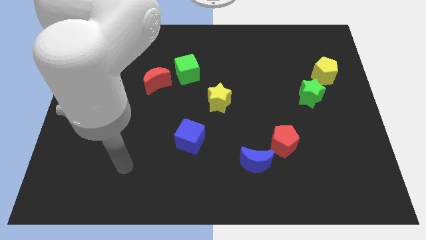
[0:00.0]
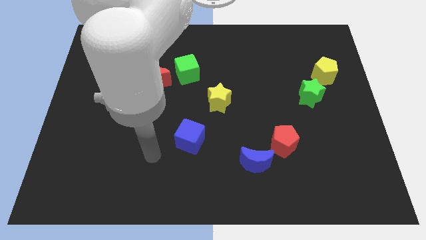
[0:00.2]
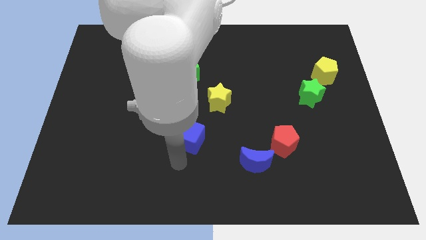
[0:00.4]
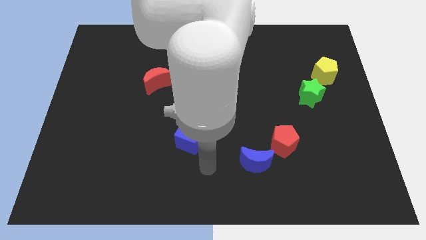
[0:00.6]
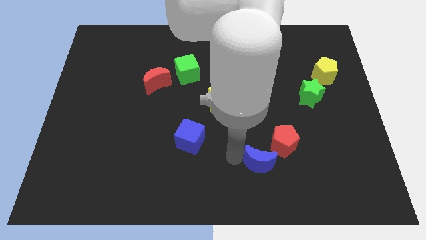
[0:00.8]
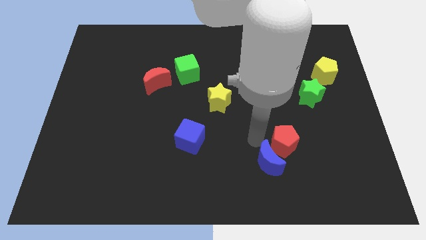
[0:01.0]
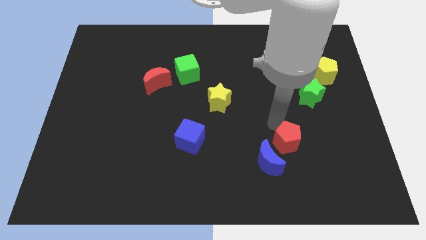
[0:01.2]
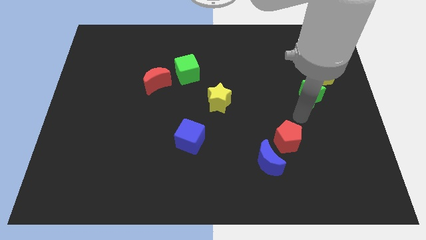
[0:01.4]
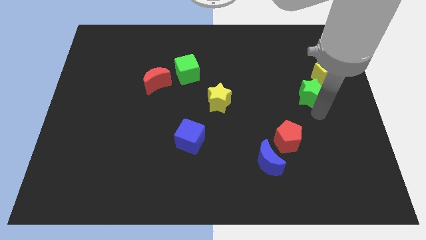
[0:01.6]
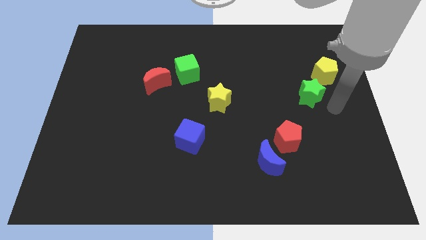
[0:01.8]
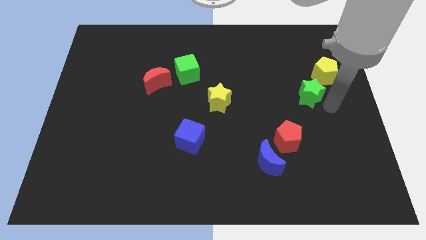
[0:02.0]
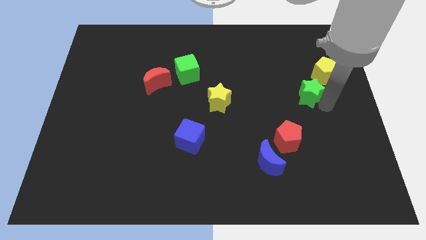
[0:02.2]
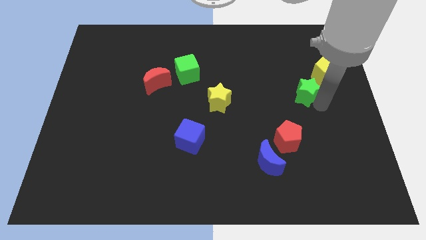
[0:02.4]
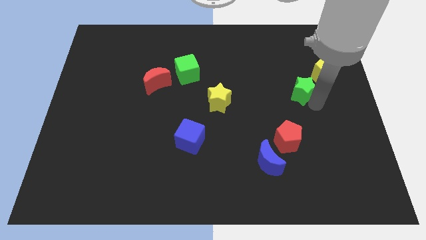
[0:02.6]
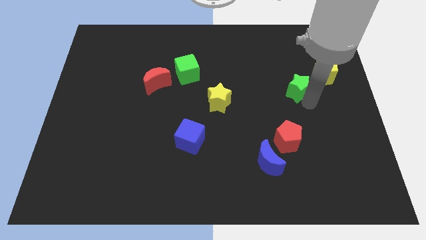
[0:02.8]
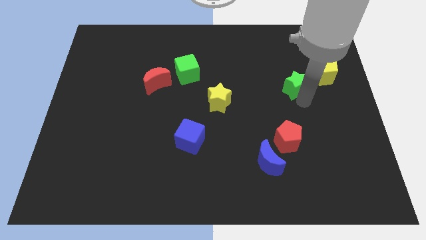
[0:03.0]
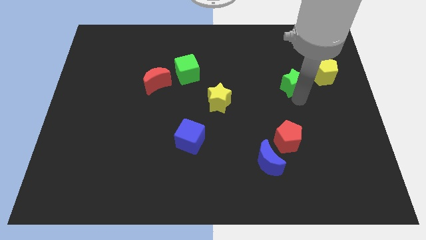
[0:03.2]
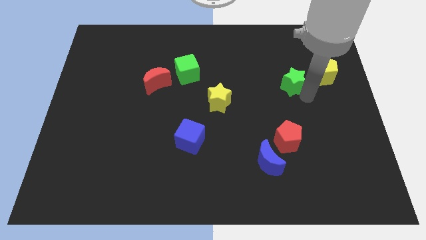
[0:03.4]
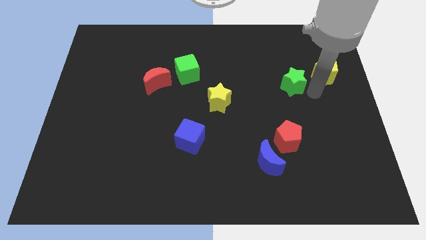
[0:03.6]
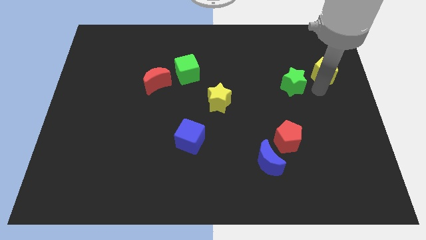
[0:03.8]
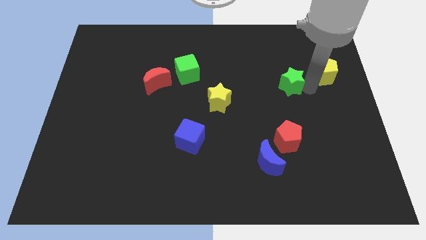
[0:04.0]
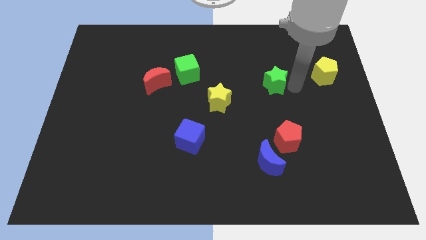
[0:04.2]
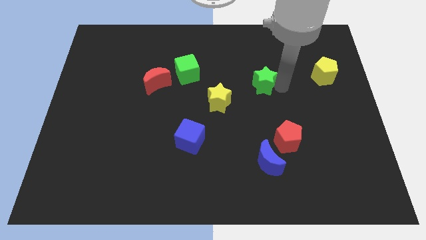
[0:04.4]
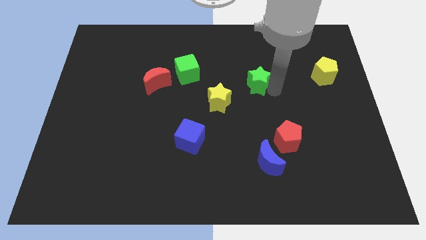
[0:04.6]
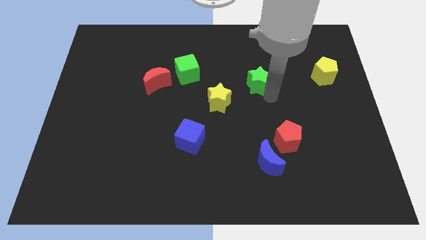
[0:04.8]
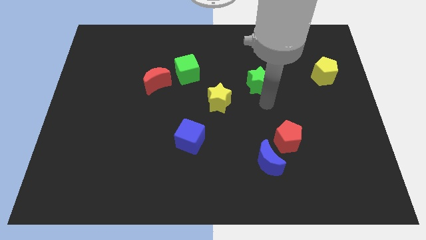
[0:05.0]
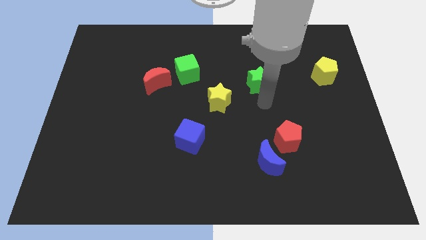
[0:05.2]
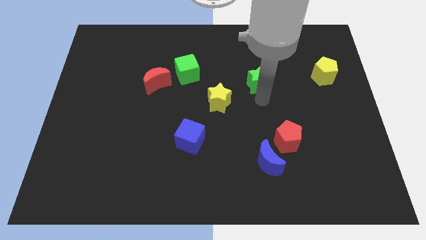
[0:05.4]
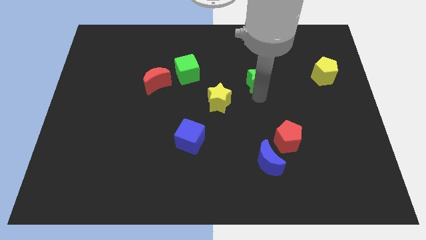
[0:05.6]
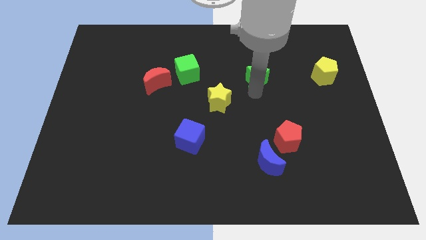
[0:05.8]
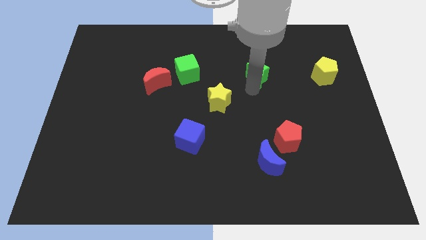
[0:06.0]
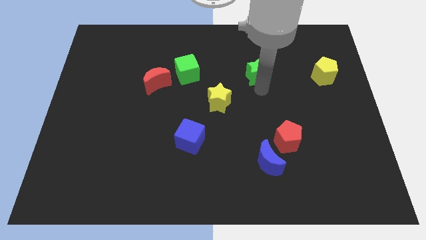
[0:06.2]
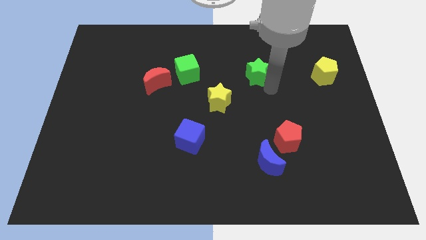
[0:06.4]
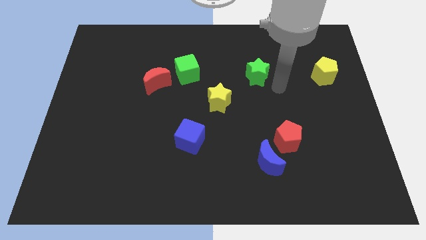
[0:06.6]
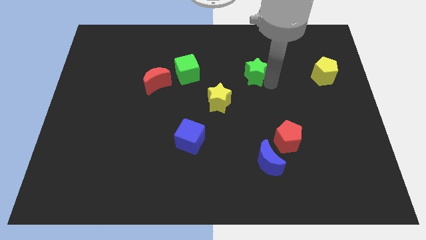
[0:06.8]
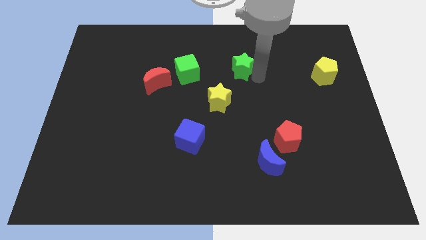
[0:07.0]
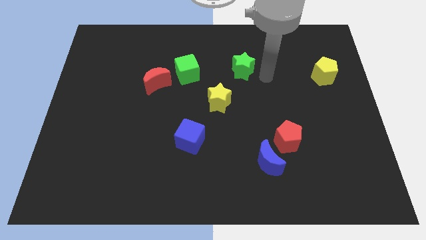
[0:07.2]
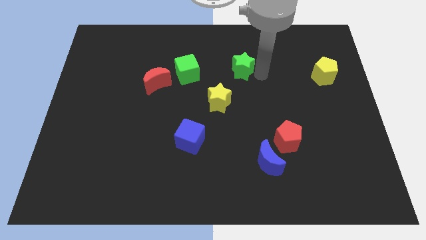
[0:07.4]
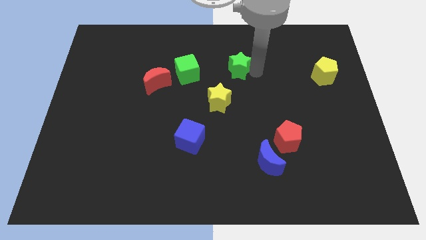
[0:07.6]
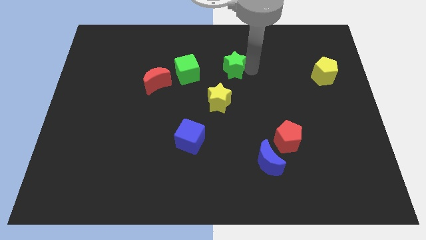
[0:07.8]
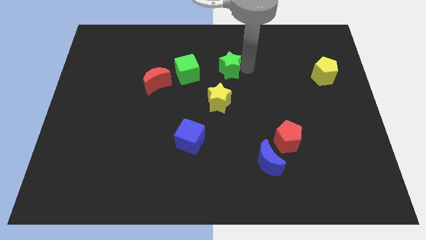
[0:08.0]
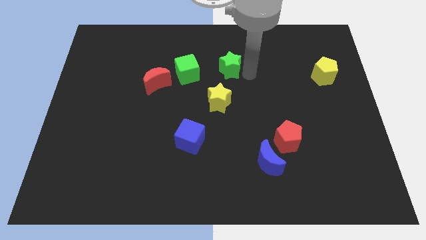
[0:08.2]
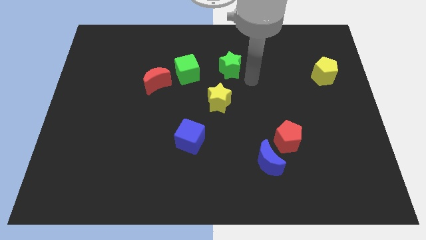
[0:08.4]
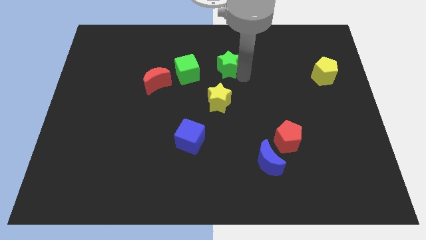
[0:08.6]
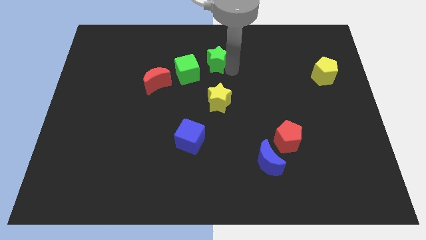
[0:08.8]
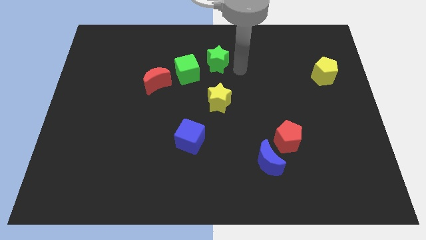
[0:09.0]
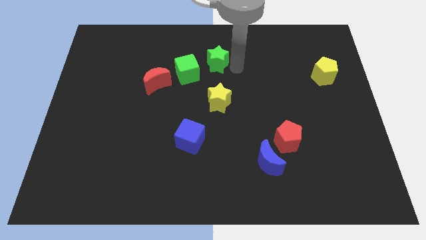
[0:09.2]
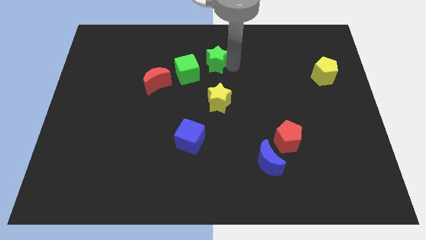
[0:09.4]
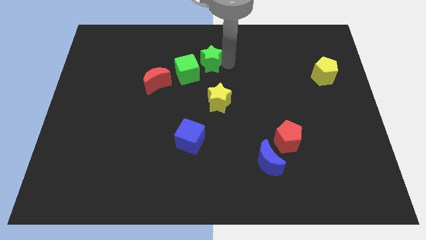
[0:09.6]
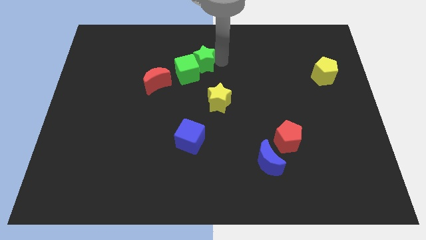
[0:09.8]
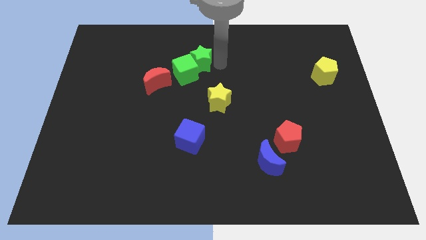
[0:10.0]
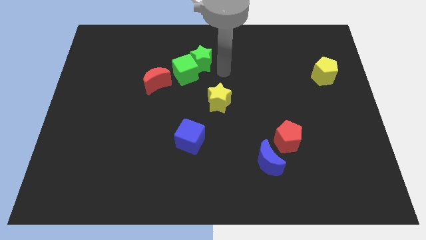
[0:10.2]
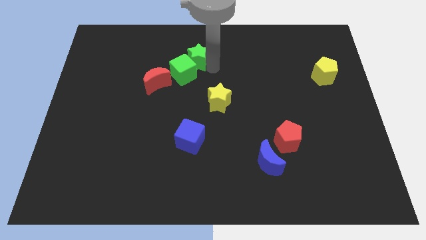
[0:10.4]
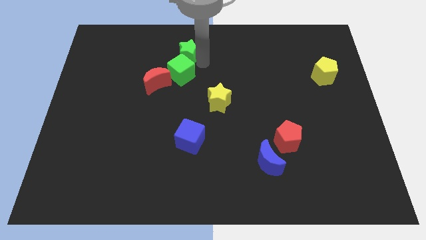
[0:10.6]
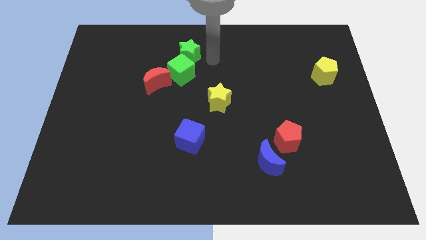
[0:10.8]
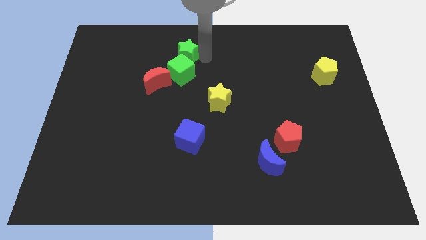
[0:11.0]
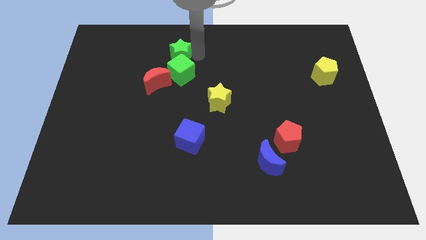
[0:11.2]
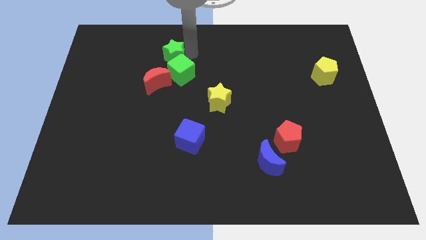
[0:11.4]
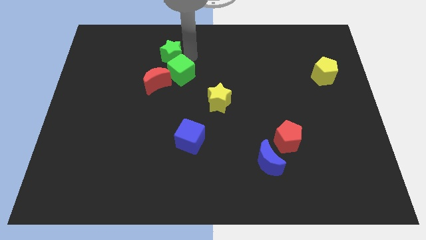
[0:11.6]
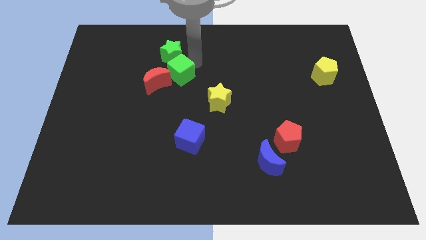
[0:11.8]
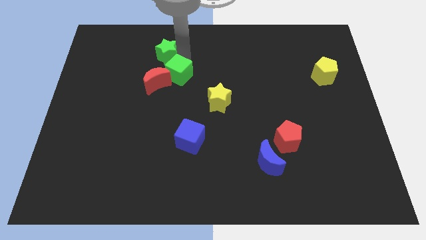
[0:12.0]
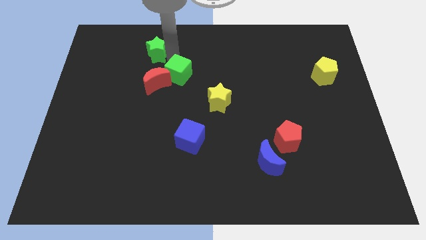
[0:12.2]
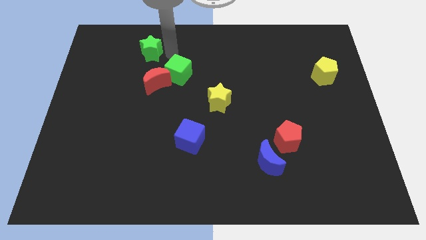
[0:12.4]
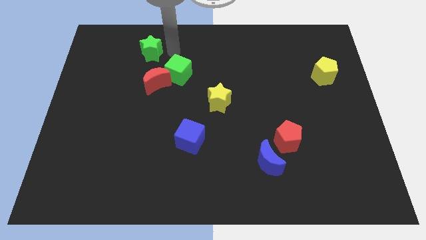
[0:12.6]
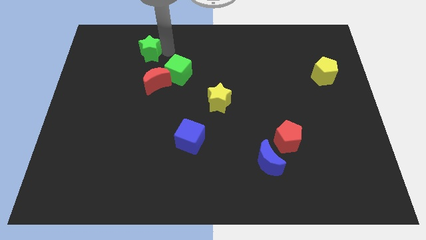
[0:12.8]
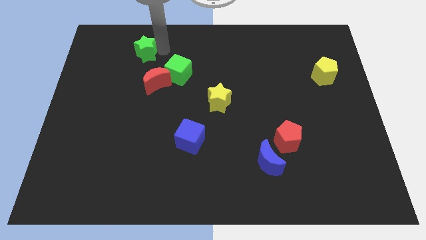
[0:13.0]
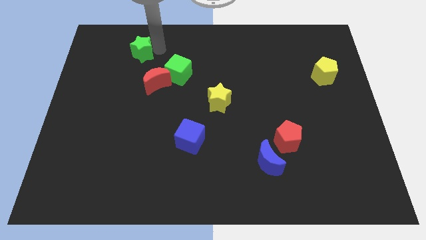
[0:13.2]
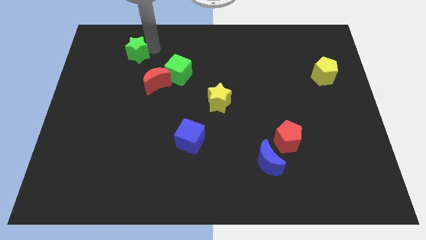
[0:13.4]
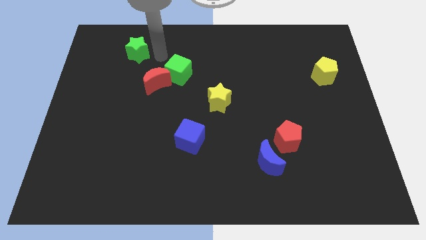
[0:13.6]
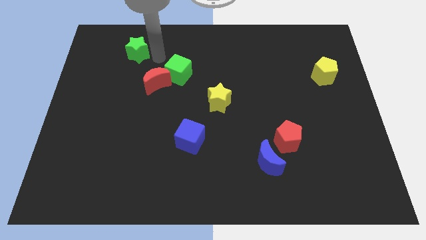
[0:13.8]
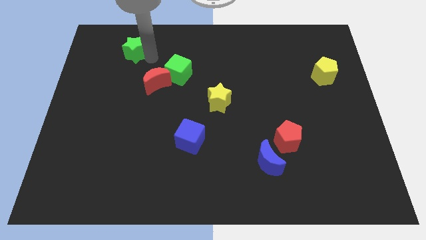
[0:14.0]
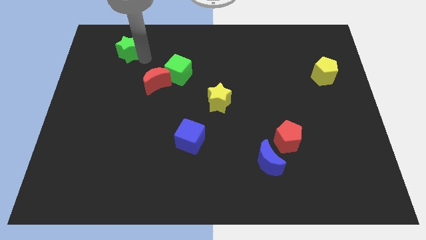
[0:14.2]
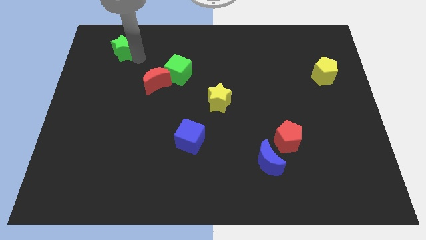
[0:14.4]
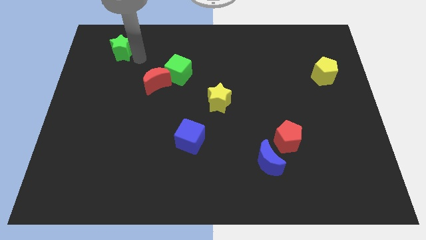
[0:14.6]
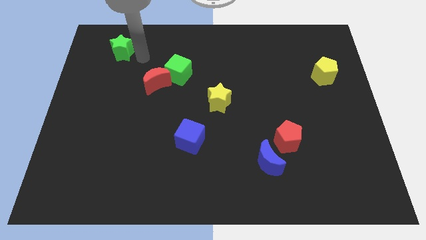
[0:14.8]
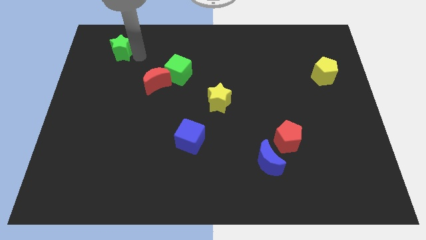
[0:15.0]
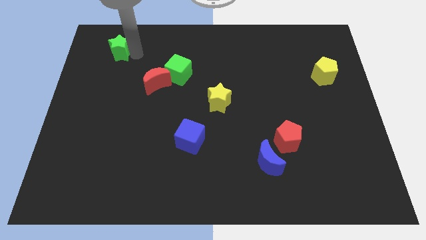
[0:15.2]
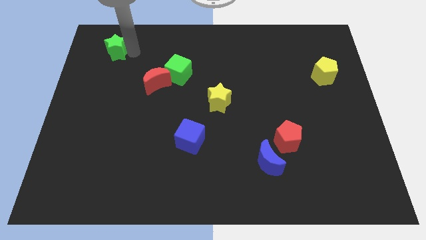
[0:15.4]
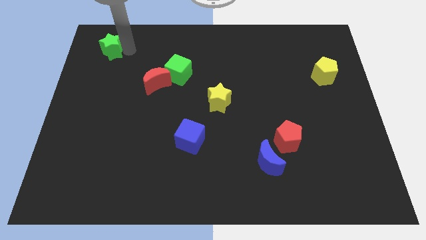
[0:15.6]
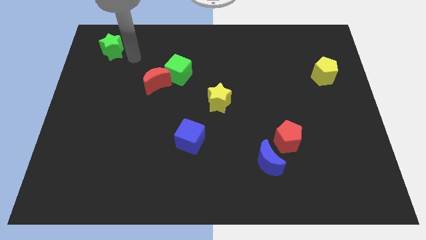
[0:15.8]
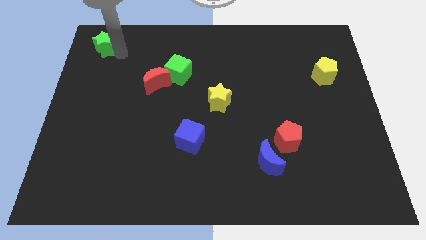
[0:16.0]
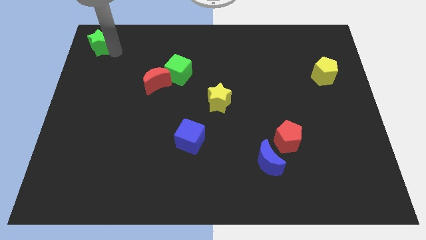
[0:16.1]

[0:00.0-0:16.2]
move the green star to the top left corner
